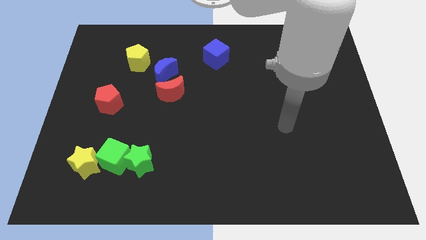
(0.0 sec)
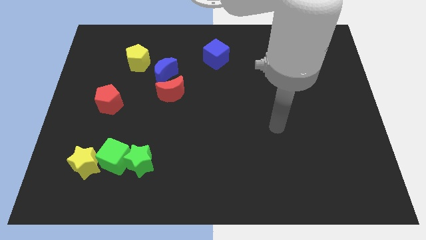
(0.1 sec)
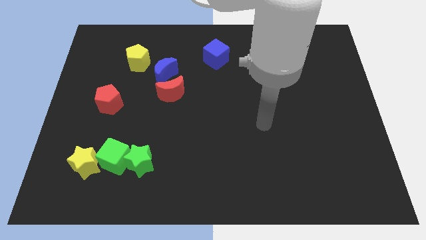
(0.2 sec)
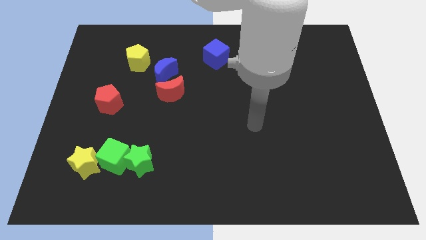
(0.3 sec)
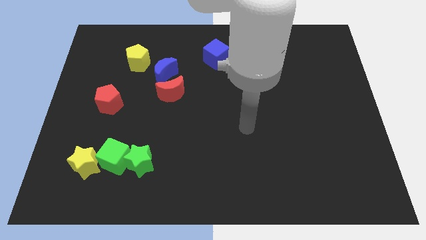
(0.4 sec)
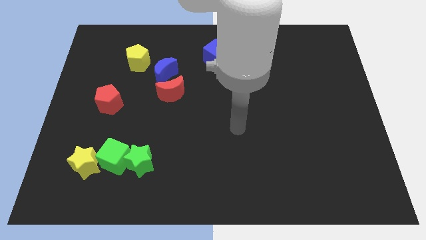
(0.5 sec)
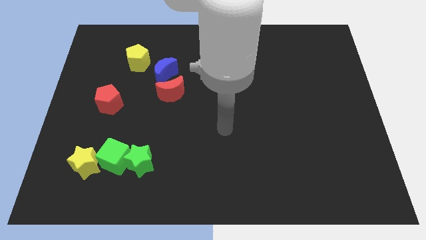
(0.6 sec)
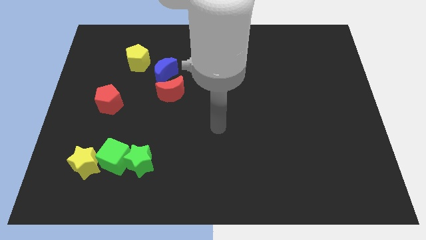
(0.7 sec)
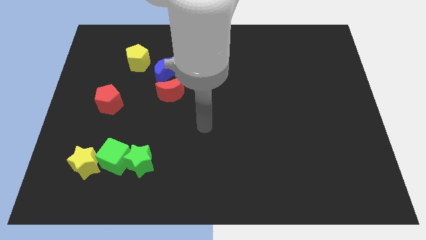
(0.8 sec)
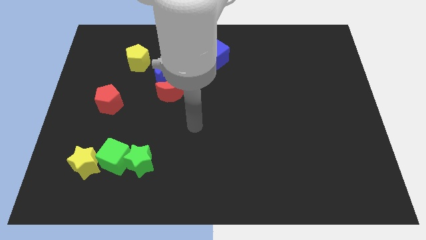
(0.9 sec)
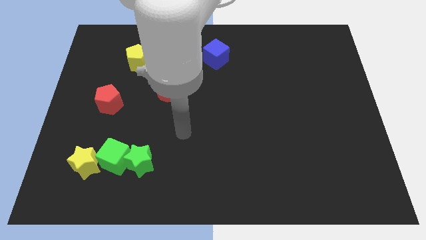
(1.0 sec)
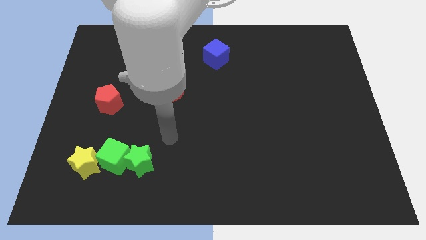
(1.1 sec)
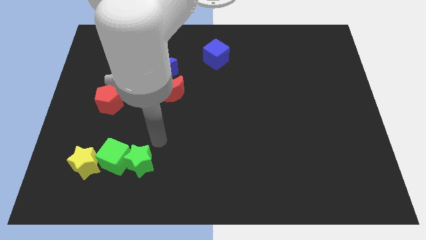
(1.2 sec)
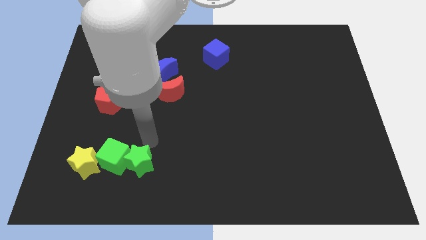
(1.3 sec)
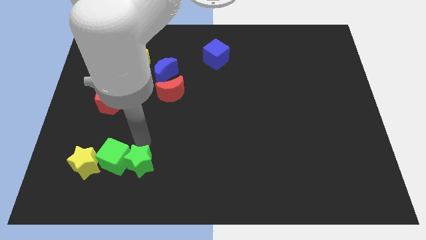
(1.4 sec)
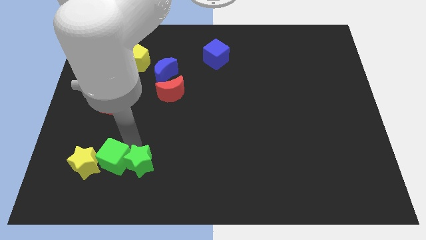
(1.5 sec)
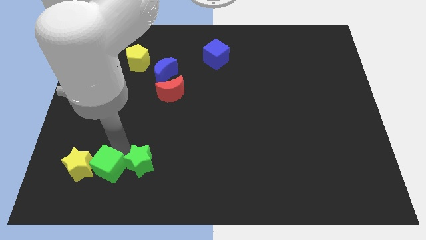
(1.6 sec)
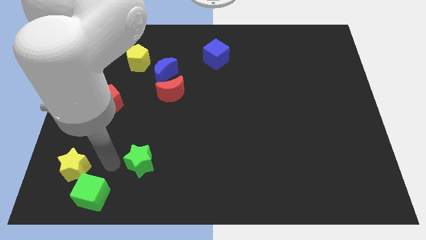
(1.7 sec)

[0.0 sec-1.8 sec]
move the green star away from the green cube

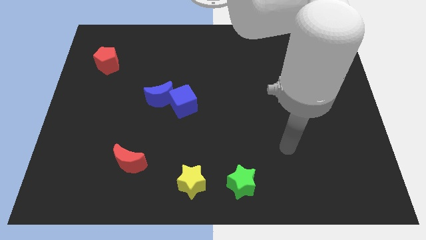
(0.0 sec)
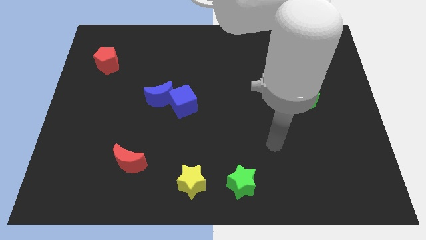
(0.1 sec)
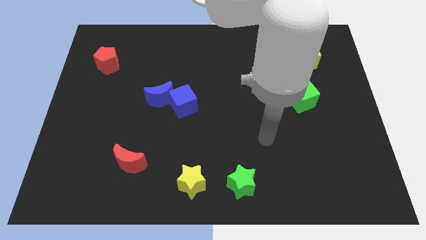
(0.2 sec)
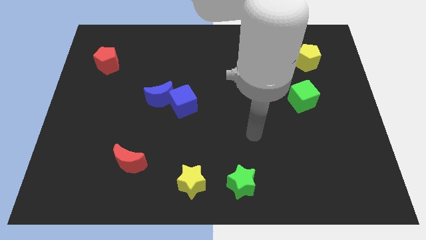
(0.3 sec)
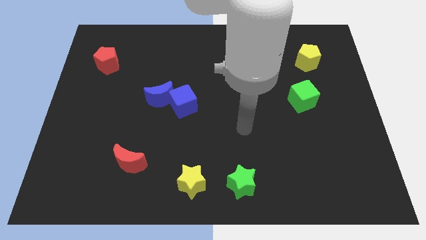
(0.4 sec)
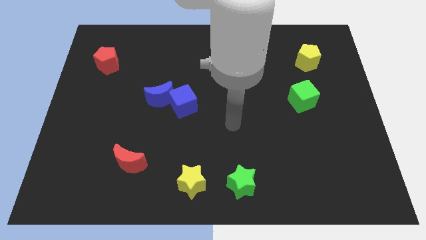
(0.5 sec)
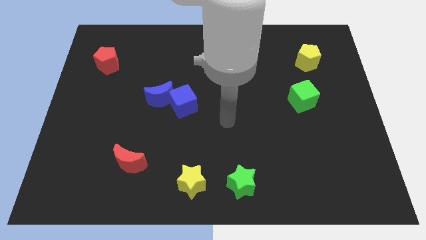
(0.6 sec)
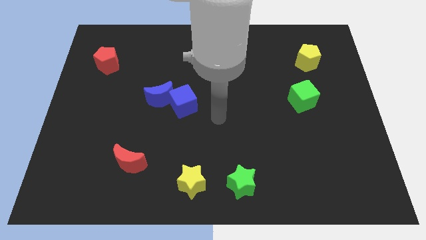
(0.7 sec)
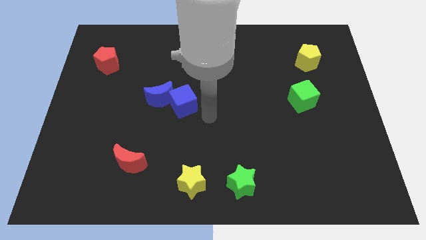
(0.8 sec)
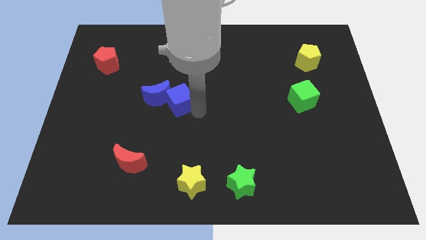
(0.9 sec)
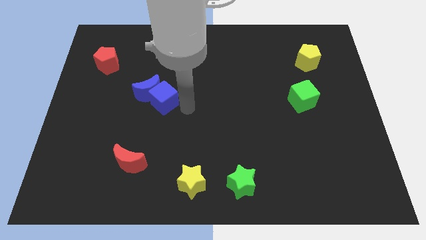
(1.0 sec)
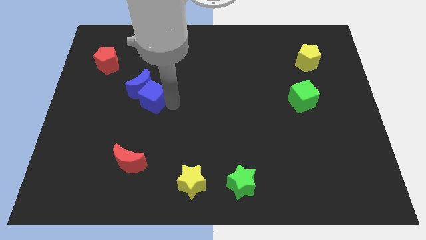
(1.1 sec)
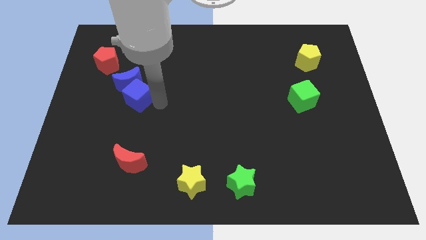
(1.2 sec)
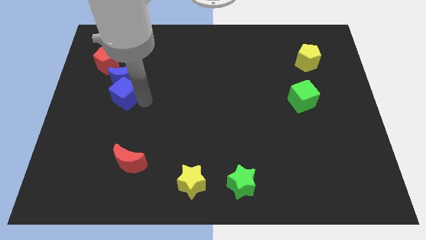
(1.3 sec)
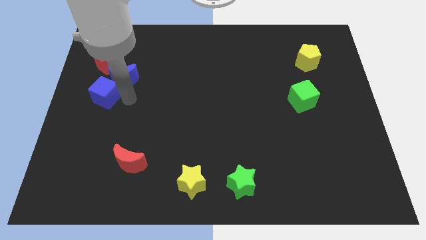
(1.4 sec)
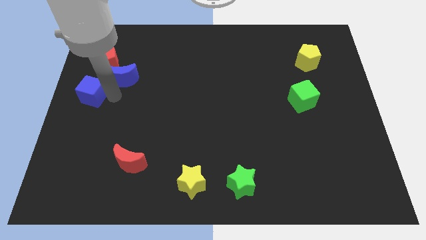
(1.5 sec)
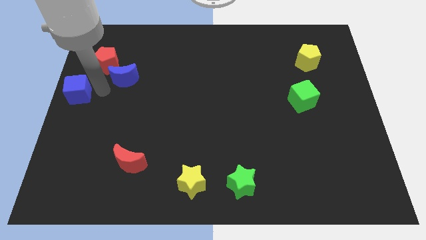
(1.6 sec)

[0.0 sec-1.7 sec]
pull the blue moon apart from the blue cube

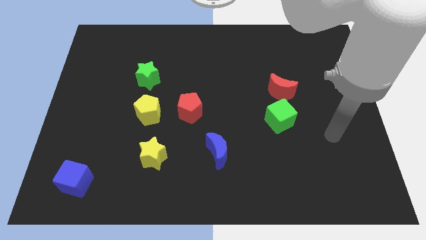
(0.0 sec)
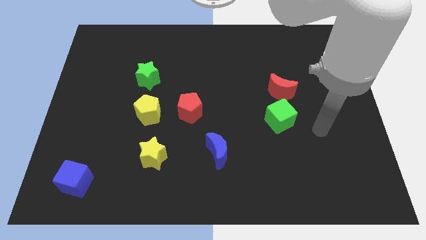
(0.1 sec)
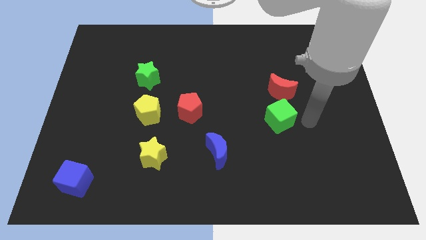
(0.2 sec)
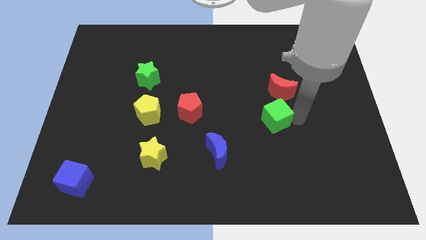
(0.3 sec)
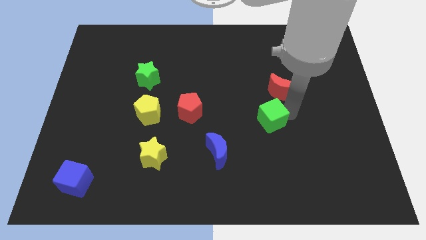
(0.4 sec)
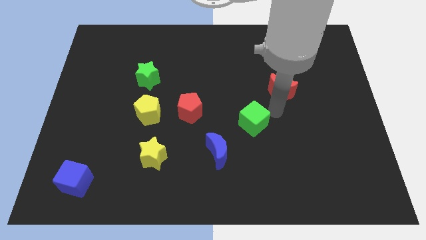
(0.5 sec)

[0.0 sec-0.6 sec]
pull the red moon apart from the green cube

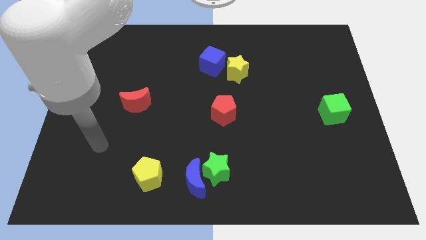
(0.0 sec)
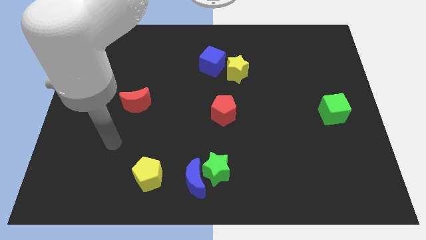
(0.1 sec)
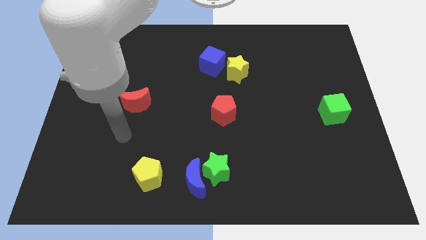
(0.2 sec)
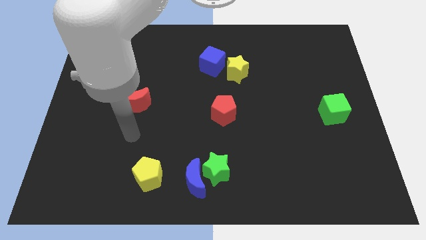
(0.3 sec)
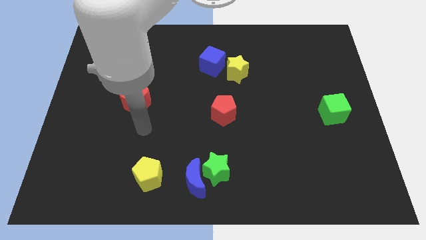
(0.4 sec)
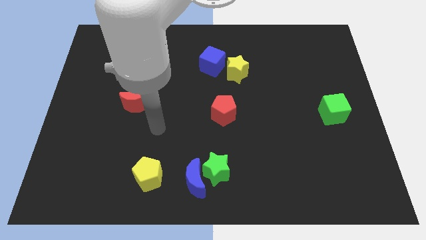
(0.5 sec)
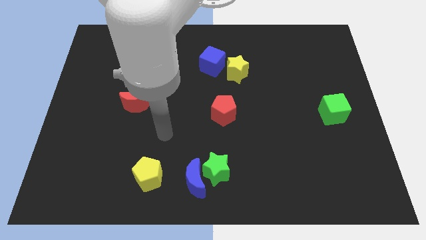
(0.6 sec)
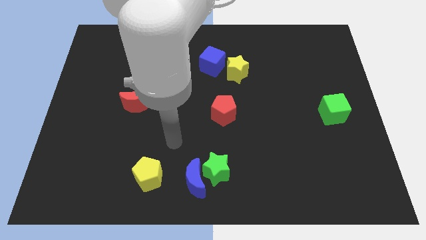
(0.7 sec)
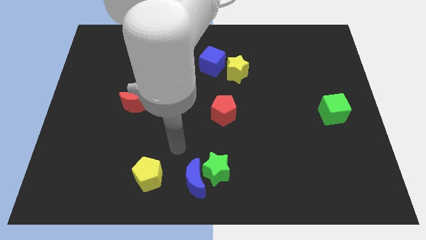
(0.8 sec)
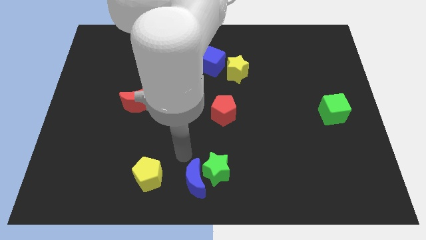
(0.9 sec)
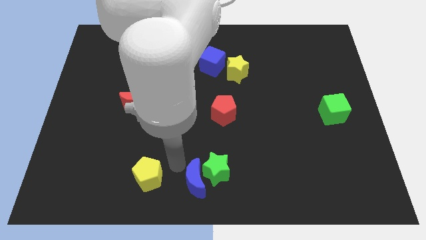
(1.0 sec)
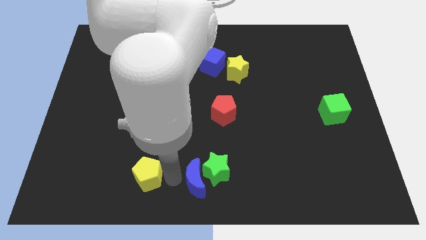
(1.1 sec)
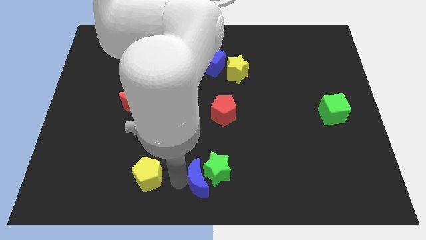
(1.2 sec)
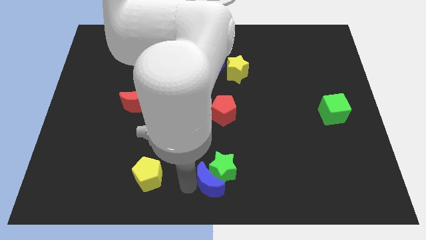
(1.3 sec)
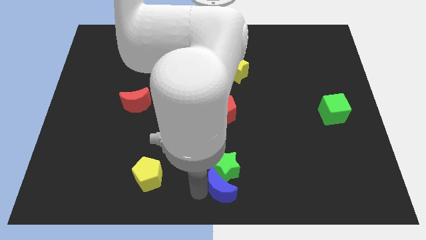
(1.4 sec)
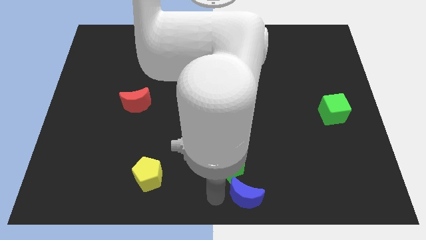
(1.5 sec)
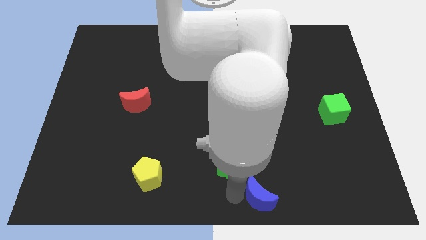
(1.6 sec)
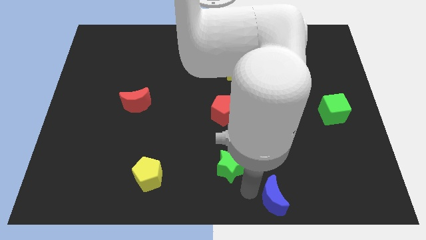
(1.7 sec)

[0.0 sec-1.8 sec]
move the green star away from the blue moon

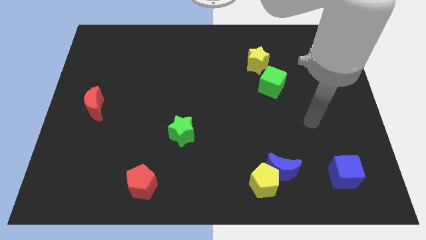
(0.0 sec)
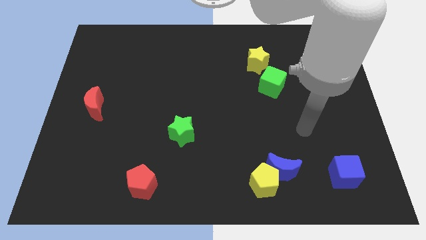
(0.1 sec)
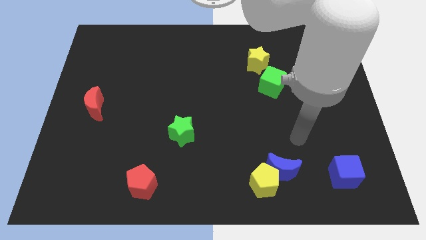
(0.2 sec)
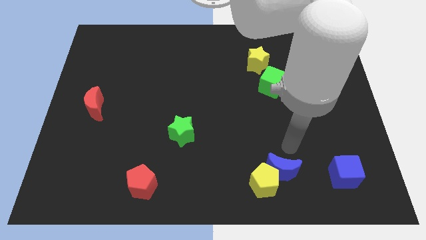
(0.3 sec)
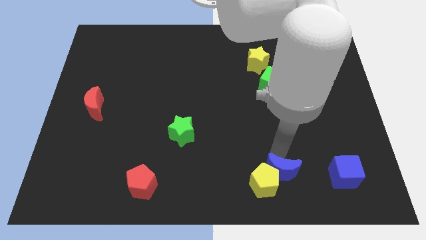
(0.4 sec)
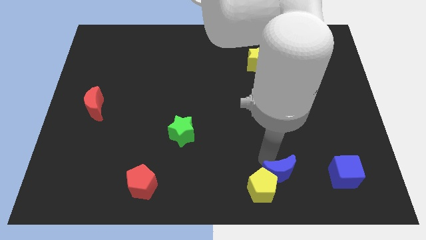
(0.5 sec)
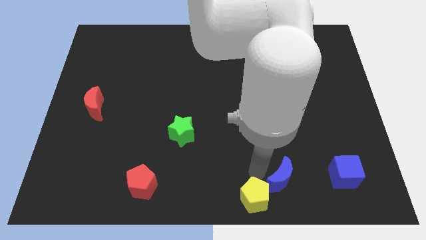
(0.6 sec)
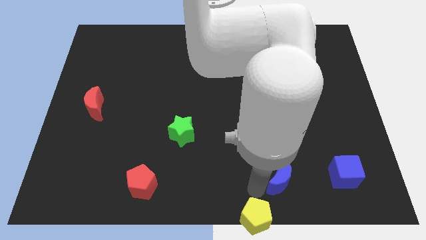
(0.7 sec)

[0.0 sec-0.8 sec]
move the blue moon away from the yellow pentagon

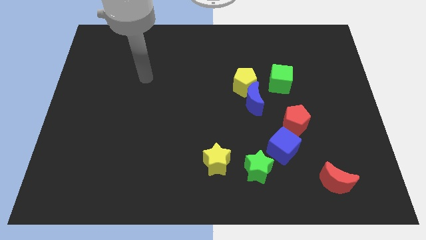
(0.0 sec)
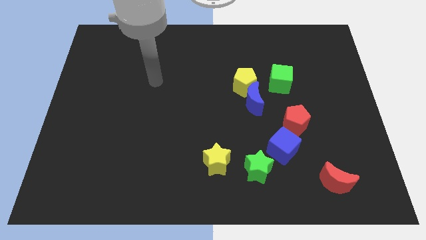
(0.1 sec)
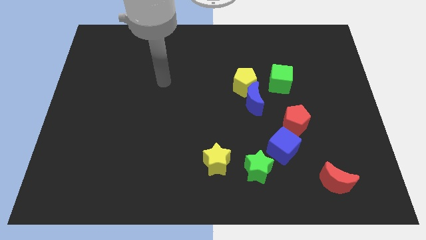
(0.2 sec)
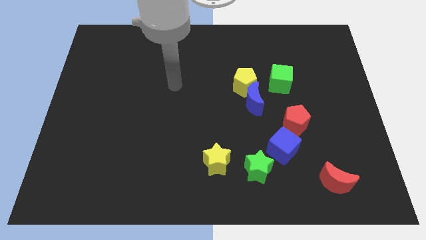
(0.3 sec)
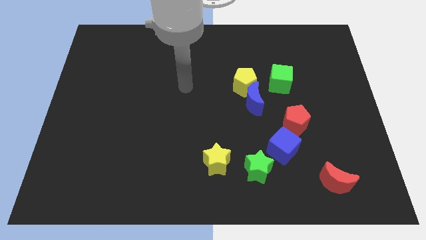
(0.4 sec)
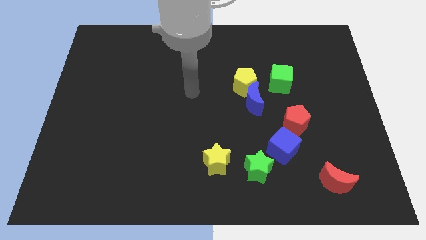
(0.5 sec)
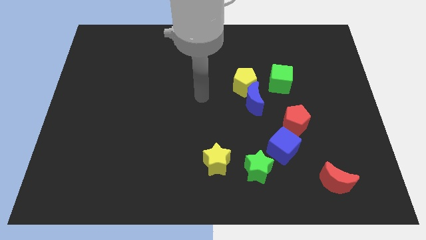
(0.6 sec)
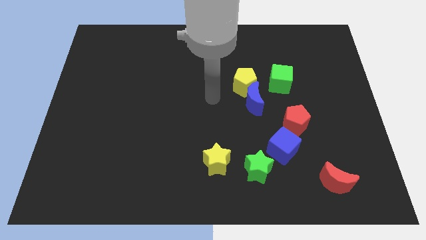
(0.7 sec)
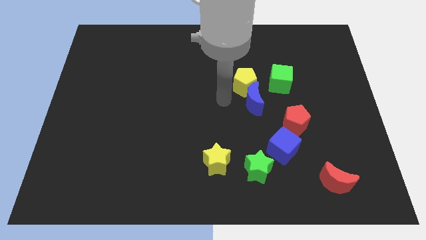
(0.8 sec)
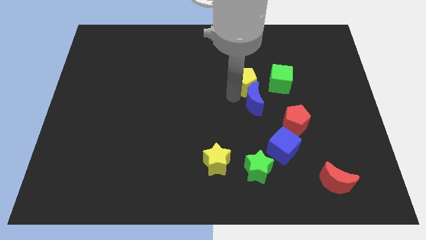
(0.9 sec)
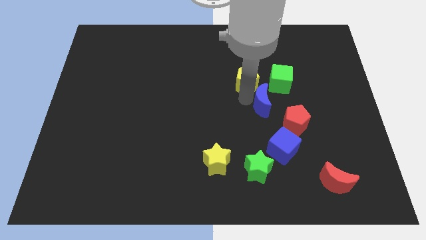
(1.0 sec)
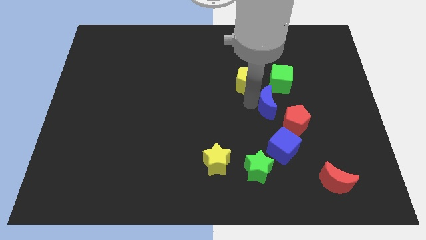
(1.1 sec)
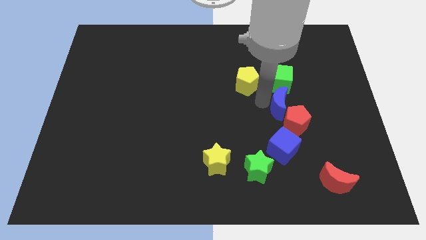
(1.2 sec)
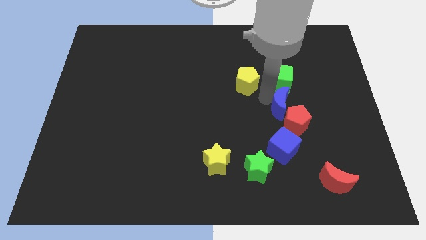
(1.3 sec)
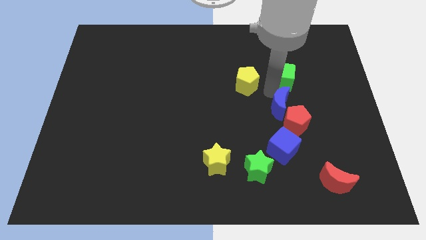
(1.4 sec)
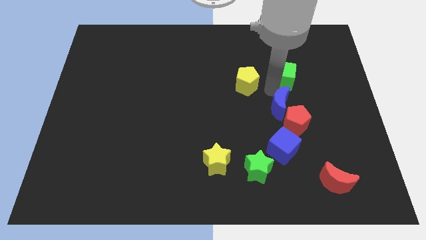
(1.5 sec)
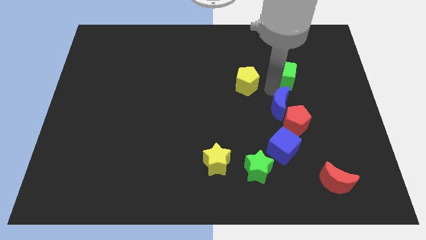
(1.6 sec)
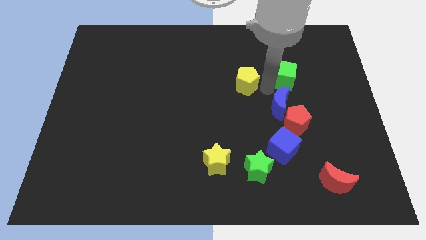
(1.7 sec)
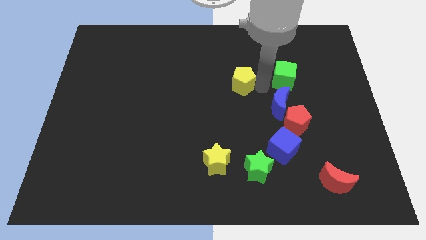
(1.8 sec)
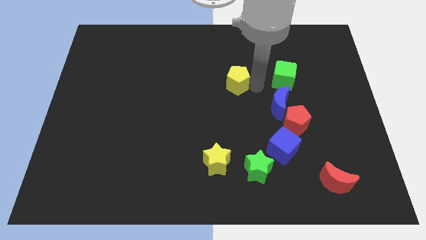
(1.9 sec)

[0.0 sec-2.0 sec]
separate the yellow pentagon from the blue moon and green cube

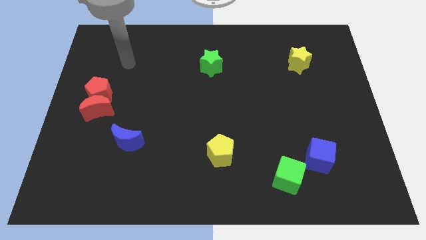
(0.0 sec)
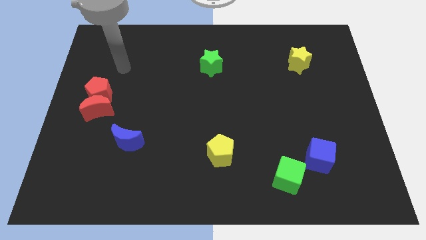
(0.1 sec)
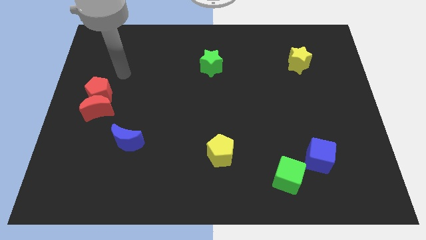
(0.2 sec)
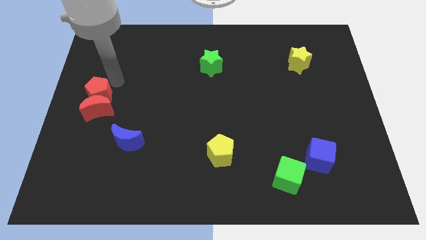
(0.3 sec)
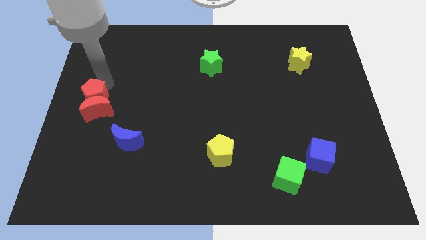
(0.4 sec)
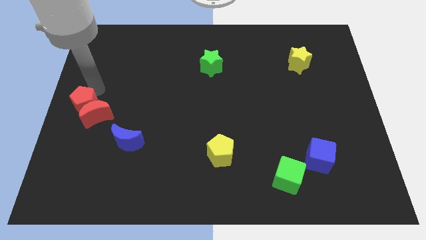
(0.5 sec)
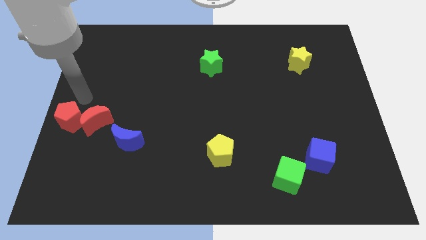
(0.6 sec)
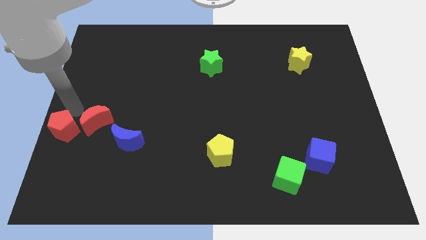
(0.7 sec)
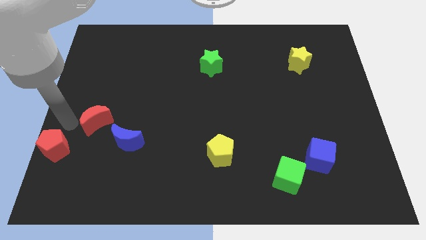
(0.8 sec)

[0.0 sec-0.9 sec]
separate the red moon from the red pentagon
